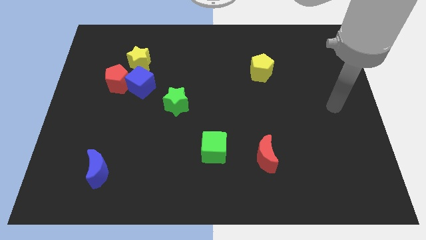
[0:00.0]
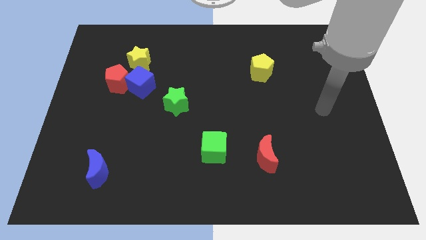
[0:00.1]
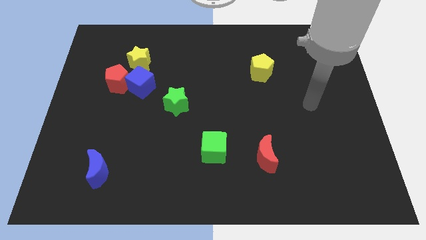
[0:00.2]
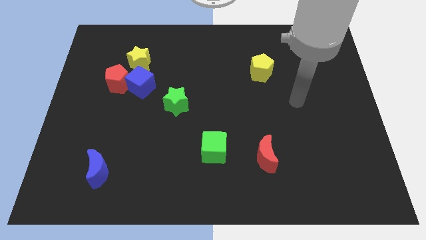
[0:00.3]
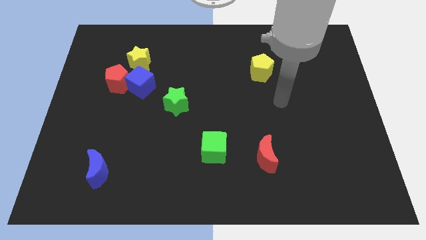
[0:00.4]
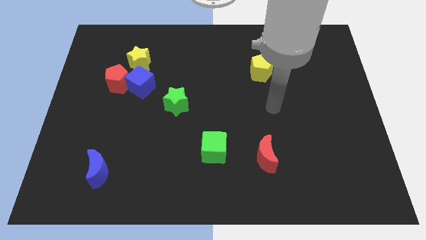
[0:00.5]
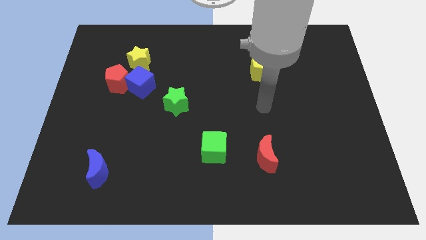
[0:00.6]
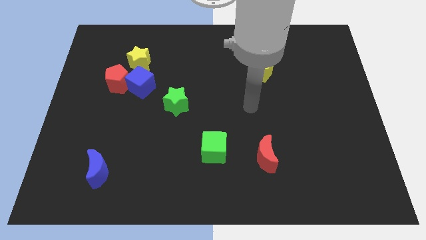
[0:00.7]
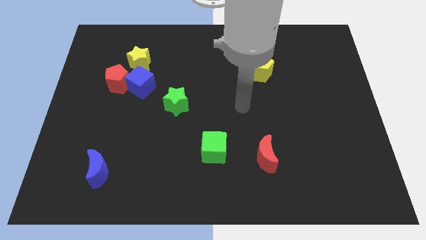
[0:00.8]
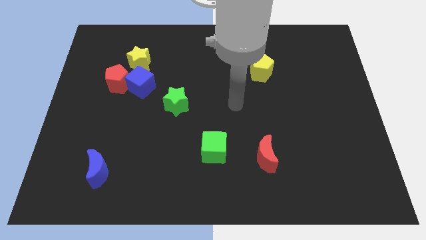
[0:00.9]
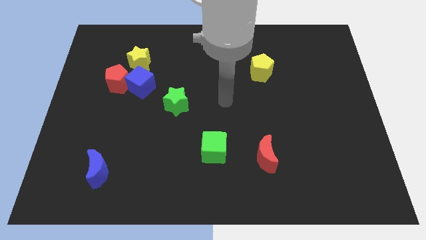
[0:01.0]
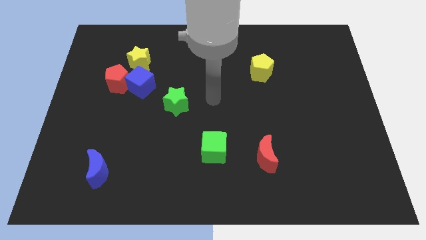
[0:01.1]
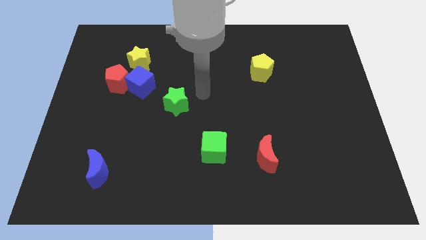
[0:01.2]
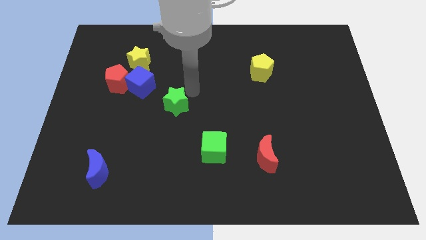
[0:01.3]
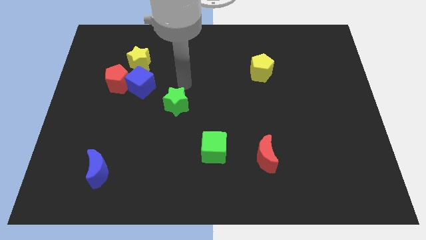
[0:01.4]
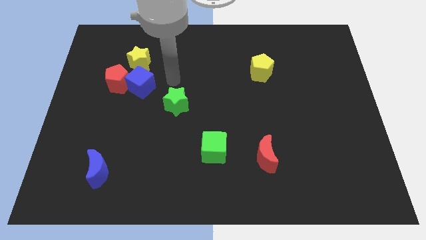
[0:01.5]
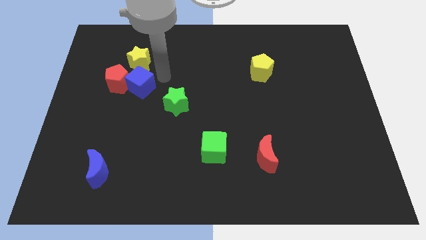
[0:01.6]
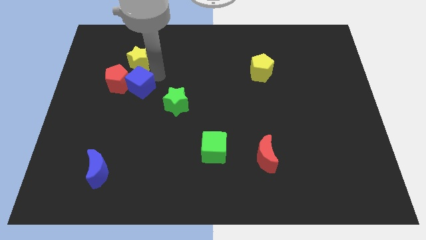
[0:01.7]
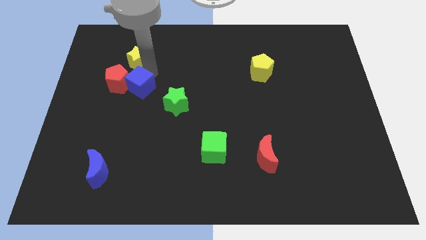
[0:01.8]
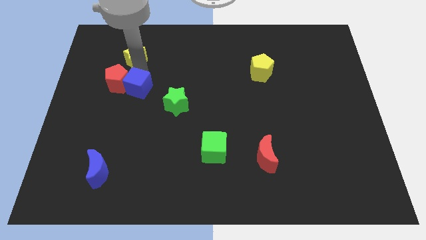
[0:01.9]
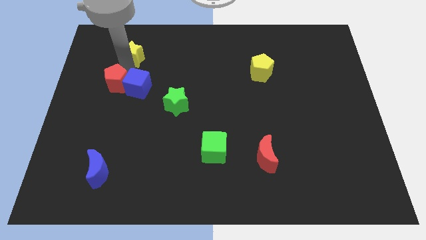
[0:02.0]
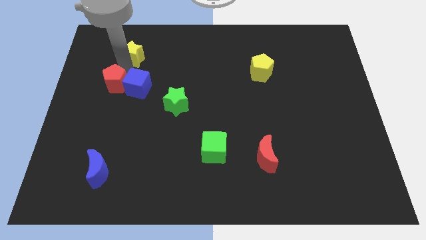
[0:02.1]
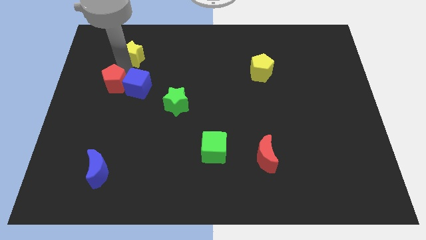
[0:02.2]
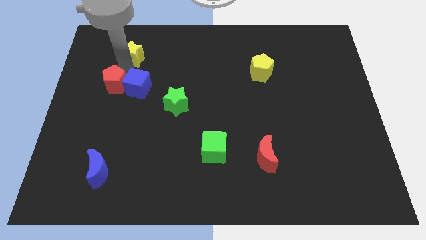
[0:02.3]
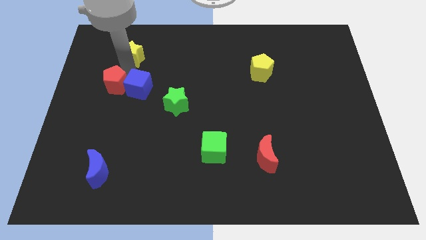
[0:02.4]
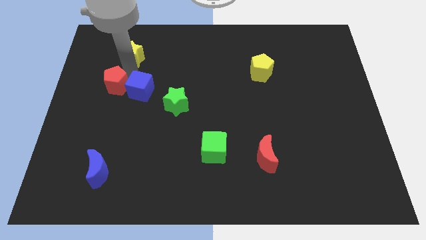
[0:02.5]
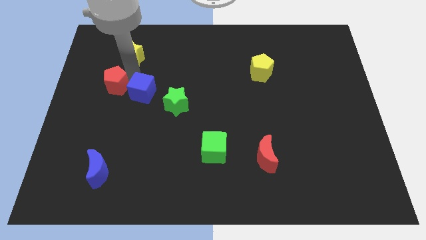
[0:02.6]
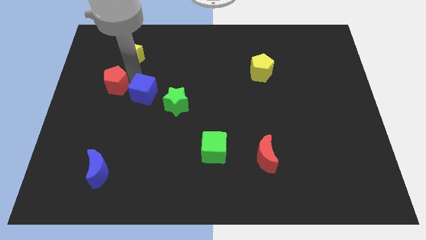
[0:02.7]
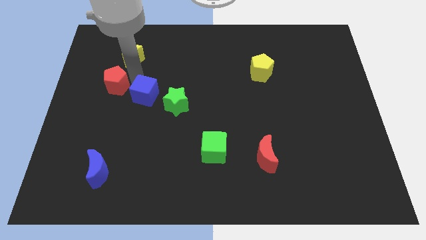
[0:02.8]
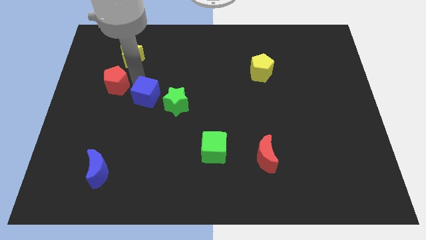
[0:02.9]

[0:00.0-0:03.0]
pull the blue cube apart from the red pentagon and yellow star

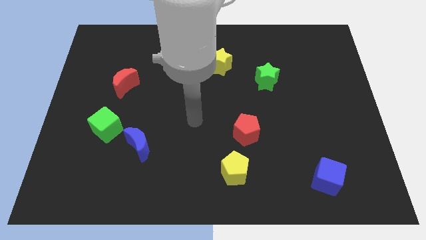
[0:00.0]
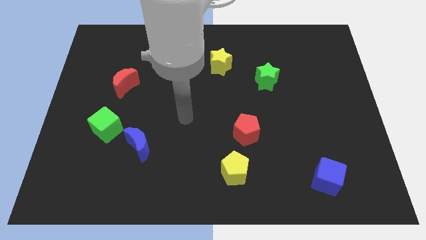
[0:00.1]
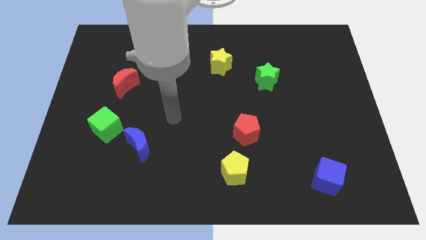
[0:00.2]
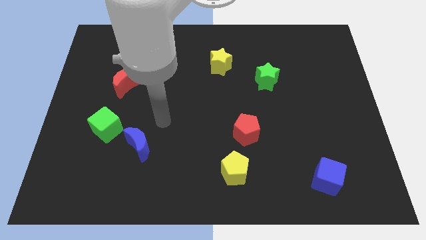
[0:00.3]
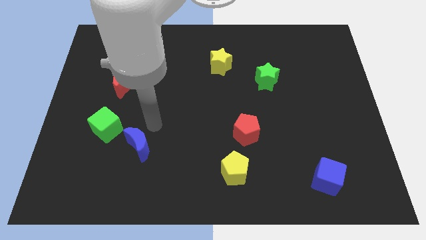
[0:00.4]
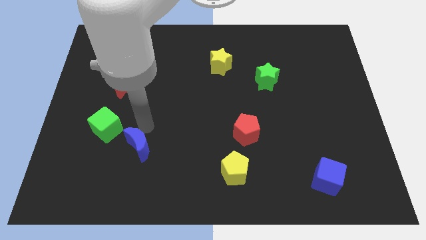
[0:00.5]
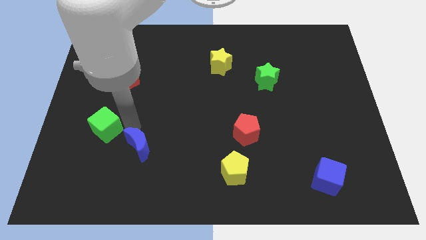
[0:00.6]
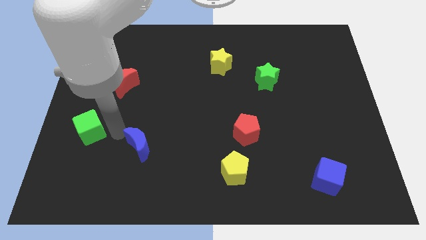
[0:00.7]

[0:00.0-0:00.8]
pull the blue moon apart from the green cube

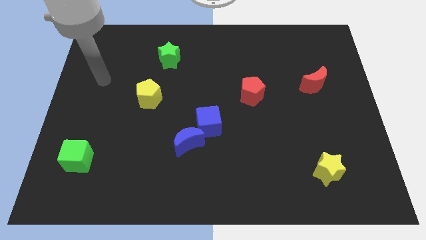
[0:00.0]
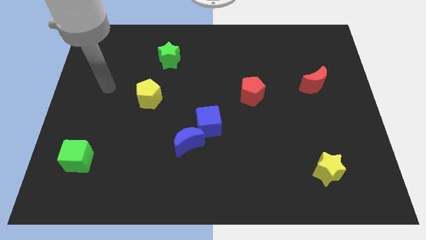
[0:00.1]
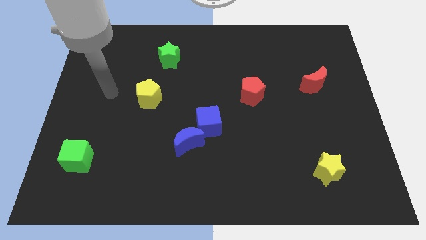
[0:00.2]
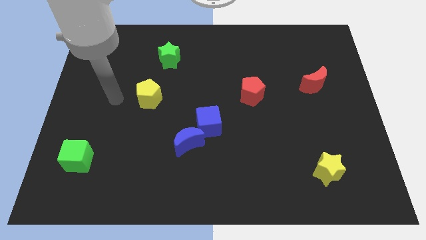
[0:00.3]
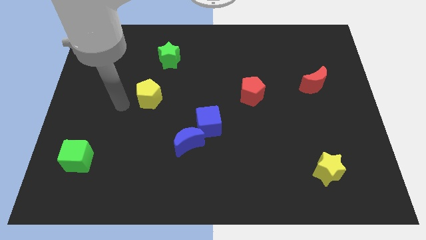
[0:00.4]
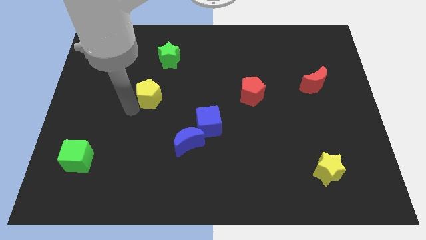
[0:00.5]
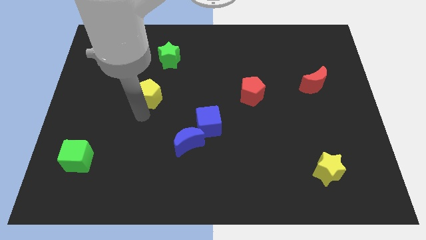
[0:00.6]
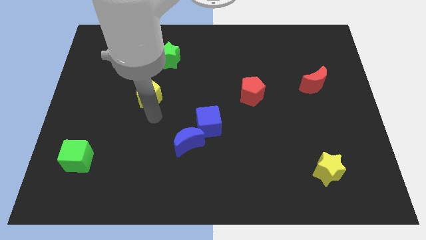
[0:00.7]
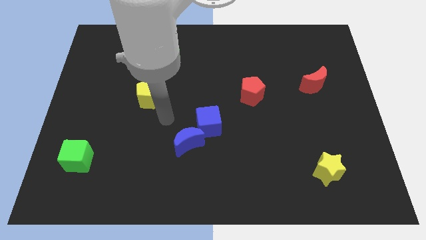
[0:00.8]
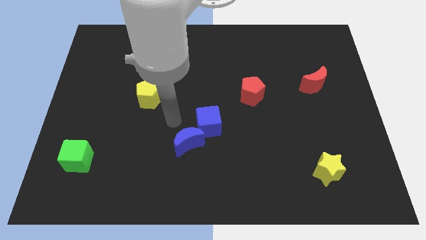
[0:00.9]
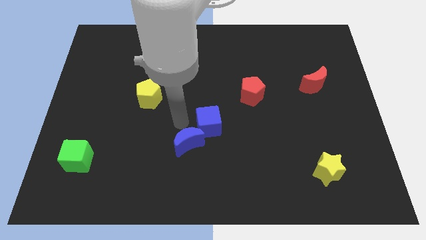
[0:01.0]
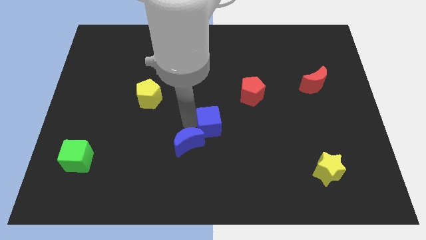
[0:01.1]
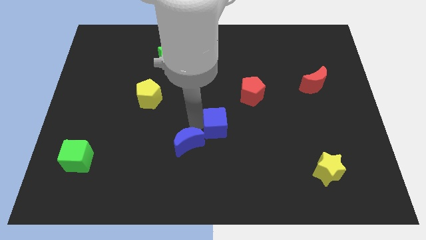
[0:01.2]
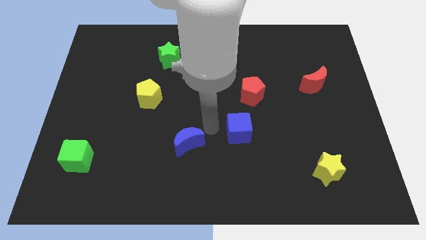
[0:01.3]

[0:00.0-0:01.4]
move the blue moon away from the blue cube

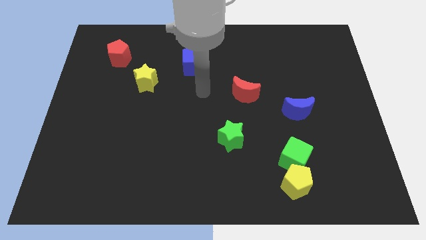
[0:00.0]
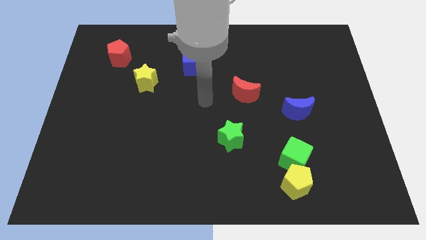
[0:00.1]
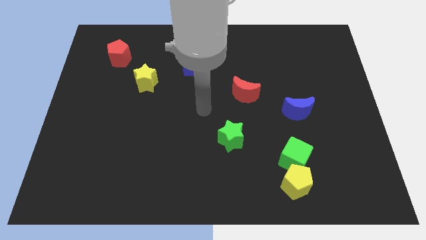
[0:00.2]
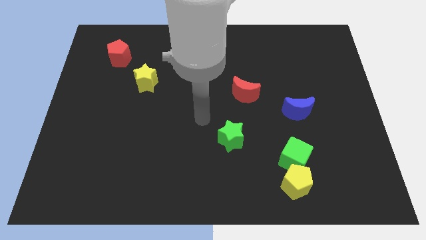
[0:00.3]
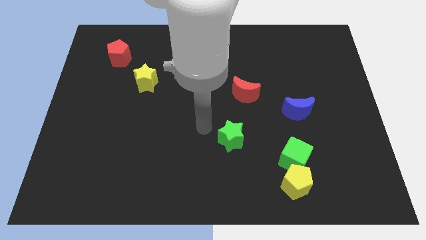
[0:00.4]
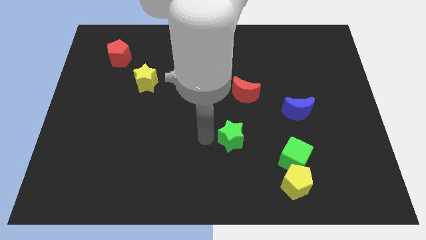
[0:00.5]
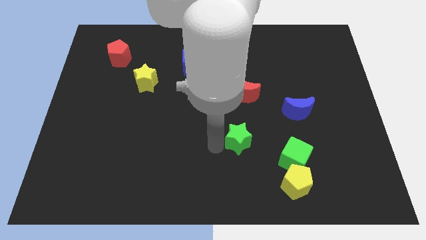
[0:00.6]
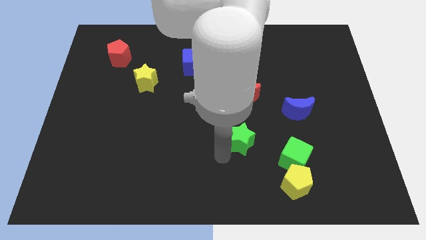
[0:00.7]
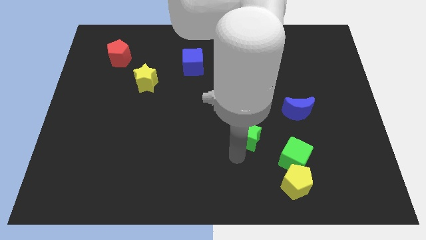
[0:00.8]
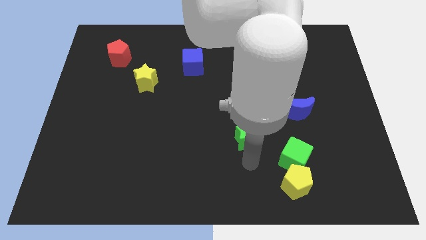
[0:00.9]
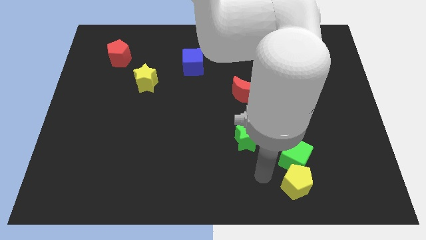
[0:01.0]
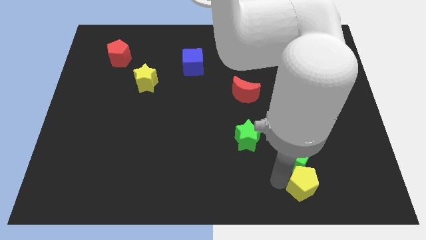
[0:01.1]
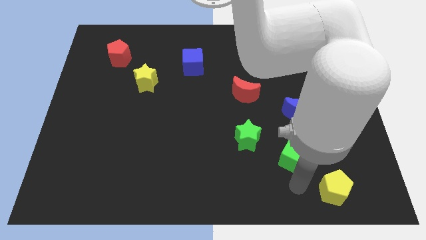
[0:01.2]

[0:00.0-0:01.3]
move the green cube away from the yellow pentagon

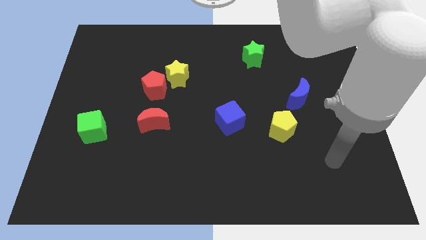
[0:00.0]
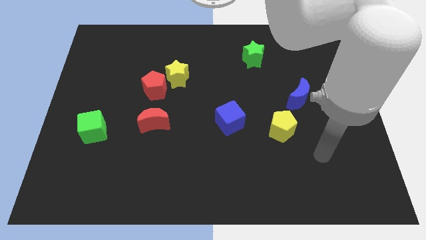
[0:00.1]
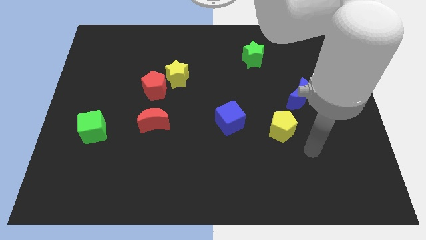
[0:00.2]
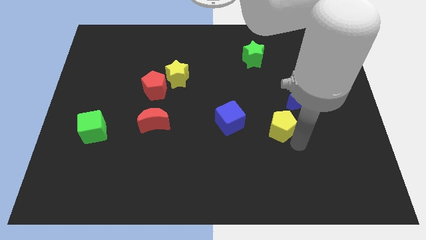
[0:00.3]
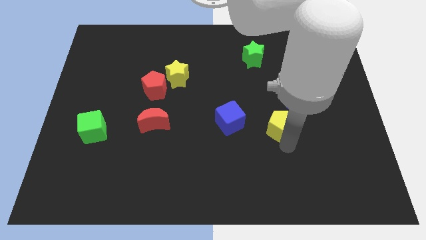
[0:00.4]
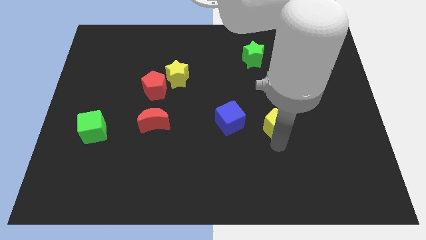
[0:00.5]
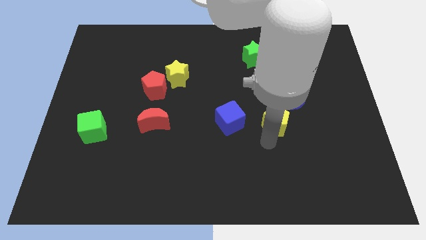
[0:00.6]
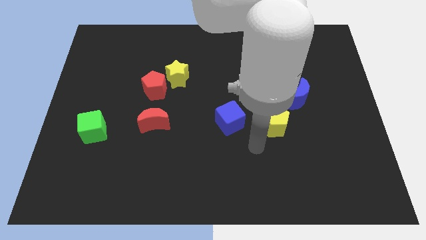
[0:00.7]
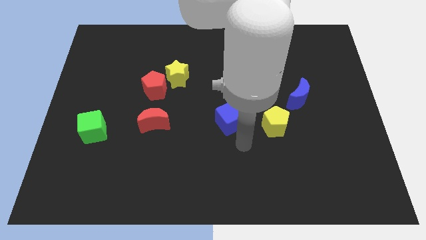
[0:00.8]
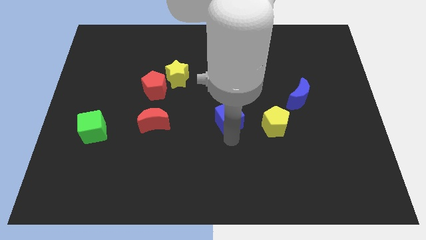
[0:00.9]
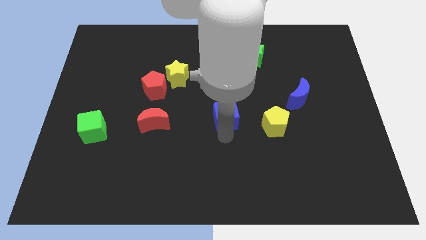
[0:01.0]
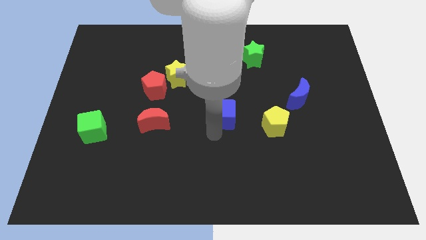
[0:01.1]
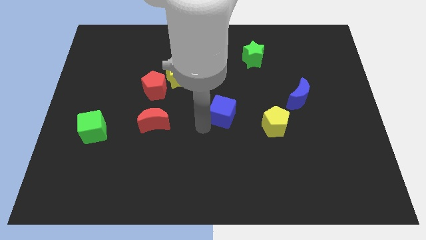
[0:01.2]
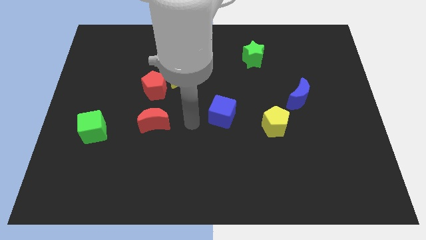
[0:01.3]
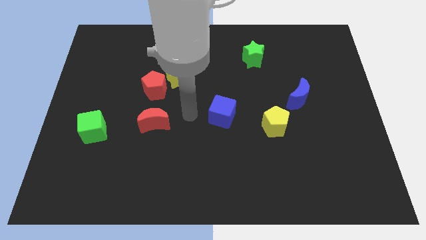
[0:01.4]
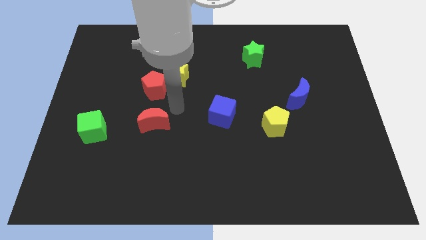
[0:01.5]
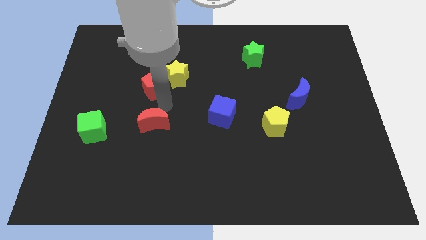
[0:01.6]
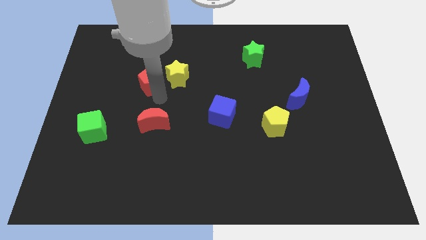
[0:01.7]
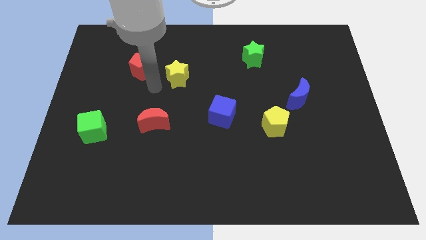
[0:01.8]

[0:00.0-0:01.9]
pull the yellow star apart from the red pentagon

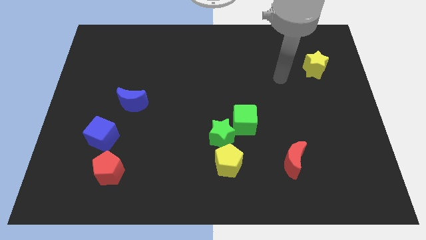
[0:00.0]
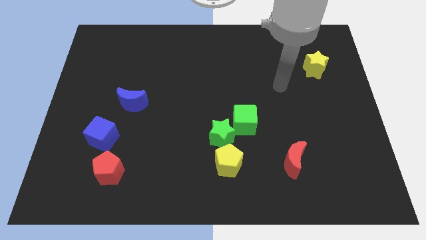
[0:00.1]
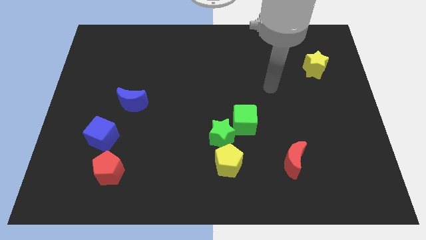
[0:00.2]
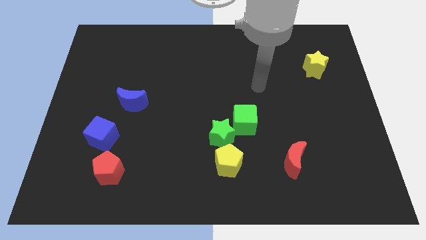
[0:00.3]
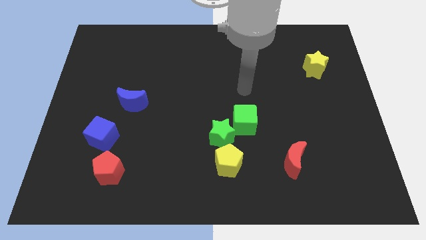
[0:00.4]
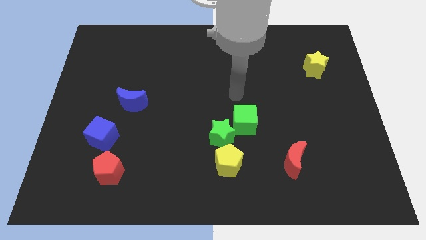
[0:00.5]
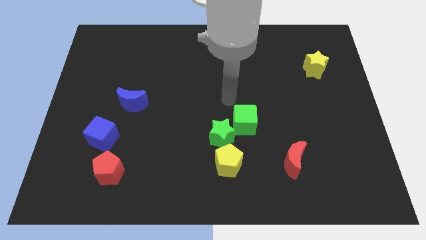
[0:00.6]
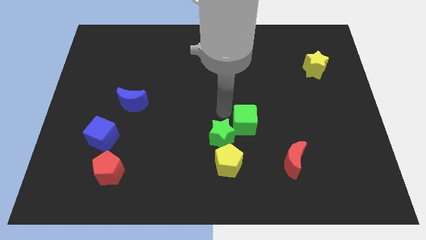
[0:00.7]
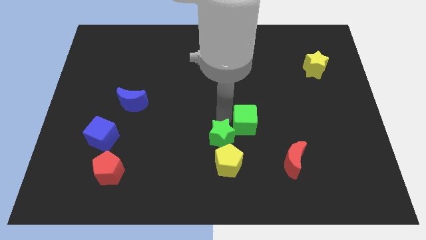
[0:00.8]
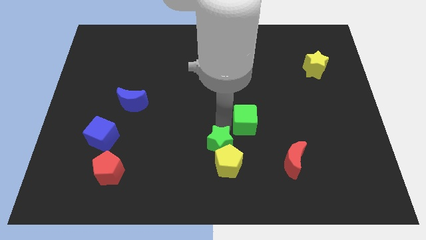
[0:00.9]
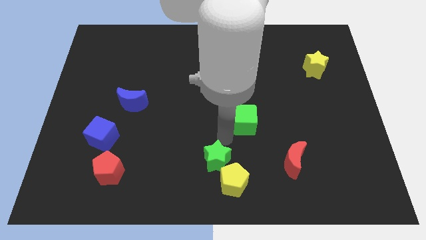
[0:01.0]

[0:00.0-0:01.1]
pull the green cube apart from the green star
